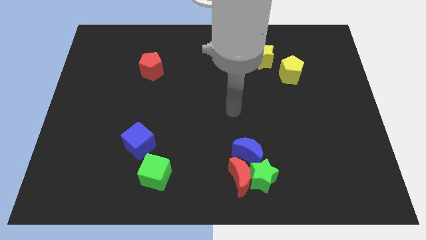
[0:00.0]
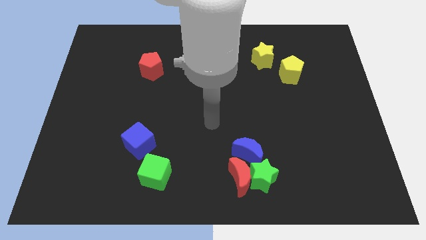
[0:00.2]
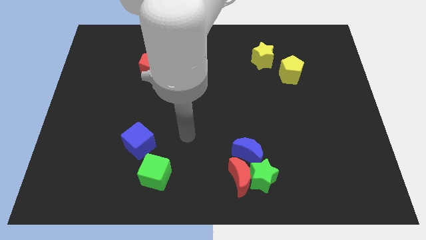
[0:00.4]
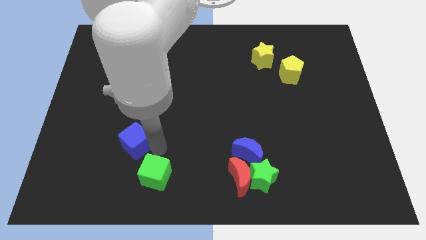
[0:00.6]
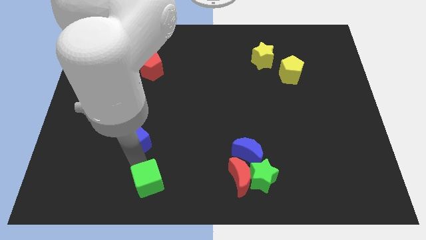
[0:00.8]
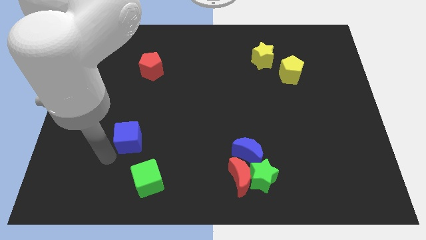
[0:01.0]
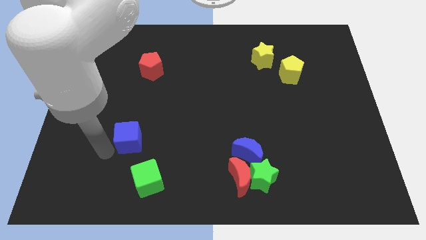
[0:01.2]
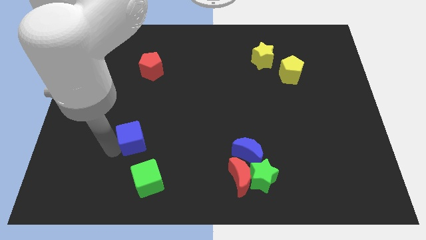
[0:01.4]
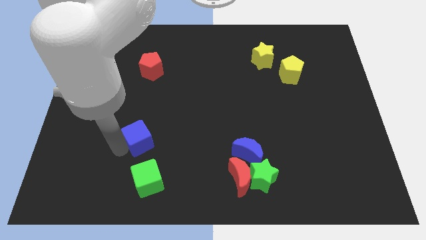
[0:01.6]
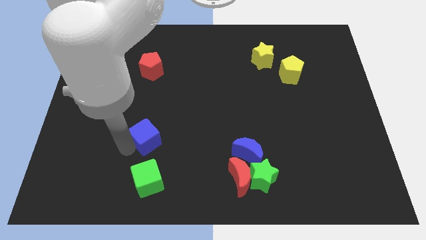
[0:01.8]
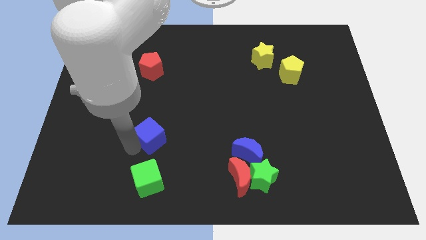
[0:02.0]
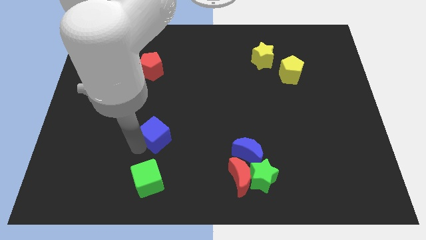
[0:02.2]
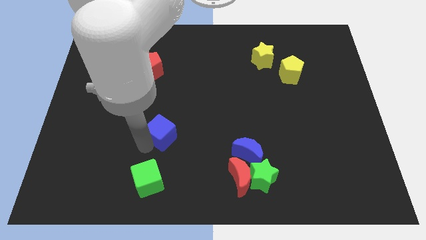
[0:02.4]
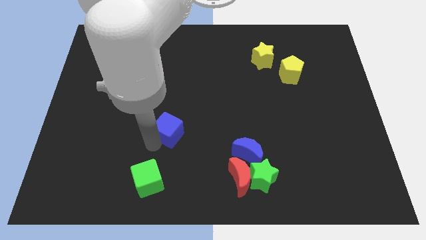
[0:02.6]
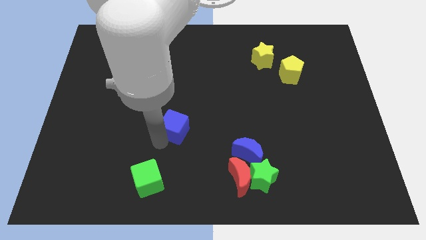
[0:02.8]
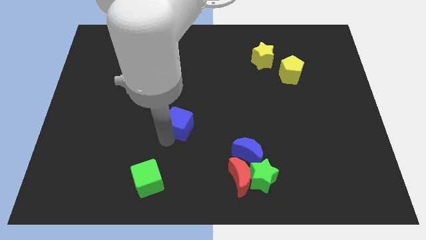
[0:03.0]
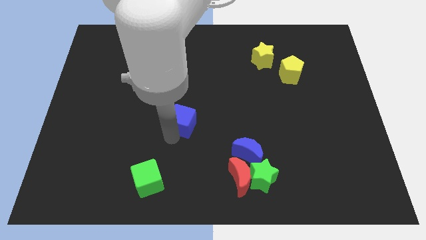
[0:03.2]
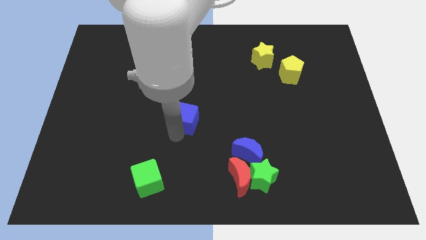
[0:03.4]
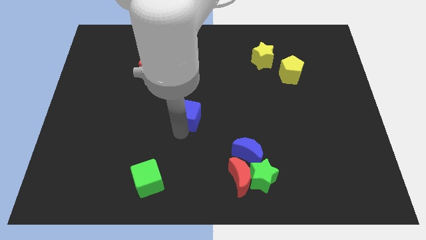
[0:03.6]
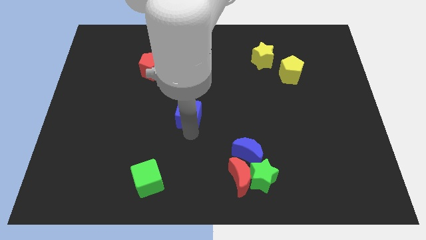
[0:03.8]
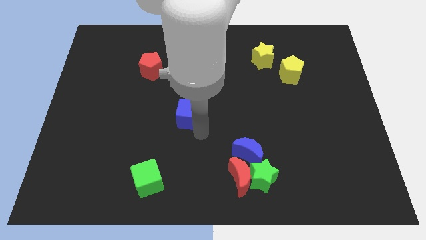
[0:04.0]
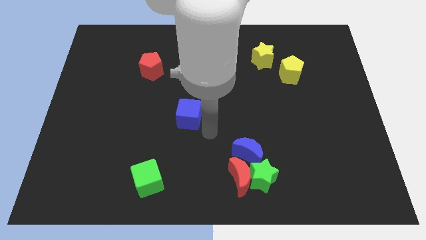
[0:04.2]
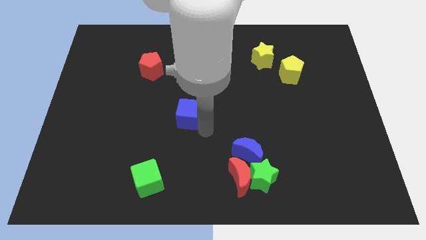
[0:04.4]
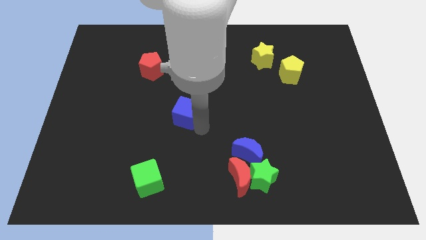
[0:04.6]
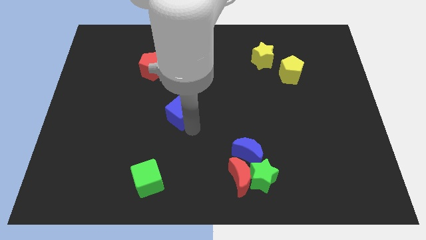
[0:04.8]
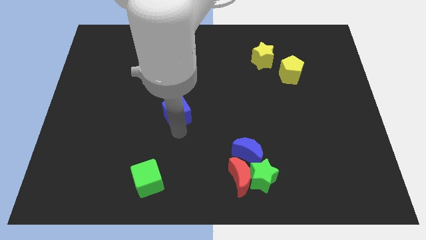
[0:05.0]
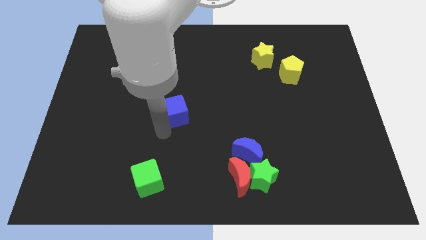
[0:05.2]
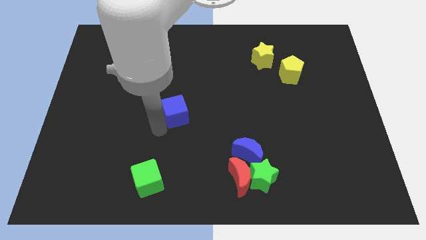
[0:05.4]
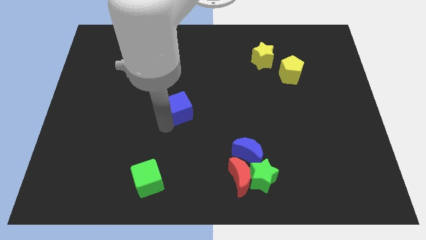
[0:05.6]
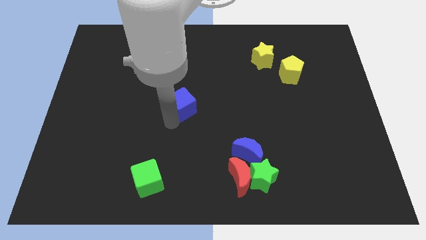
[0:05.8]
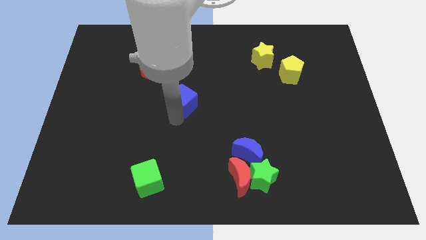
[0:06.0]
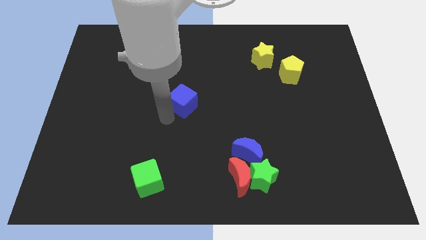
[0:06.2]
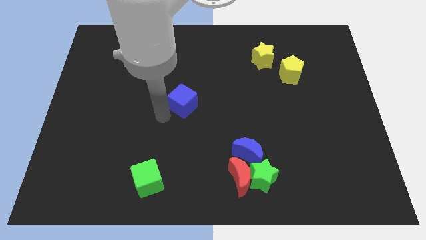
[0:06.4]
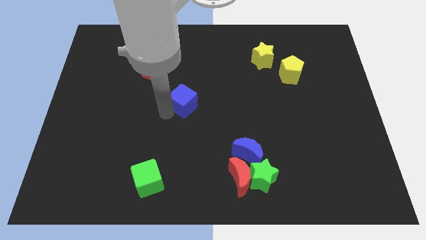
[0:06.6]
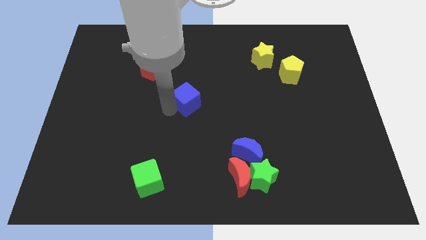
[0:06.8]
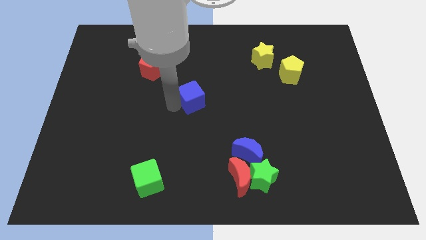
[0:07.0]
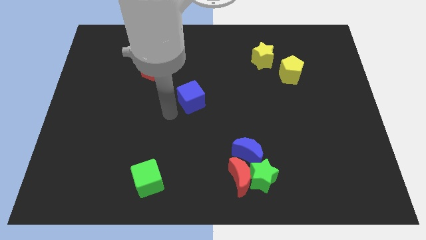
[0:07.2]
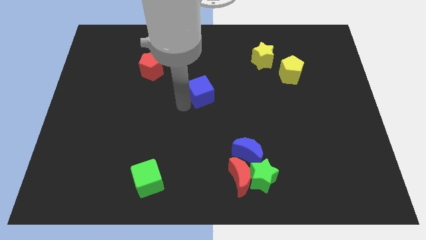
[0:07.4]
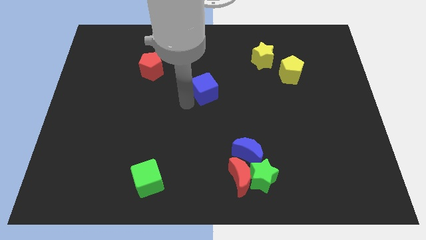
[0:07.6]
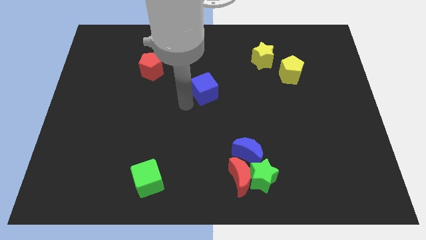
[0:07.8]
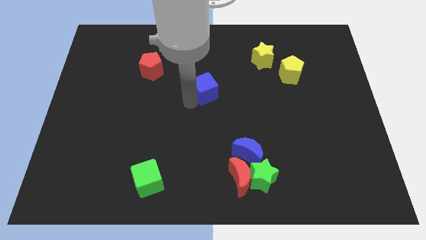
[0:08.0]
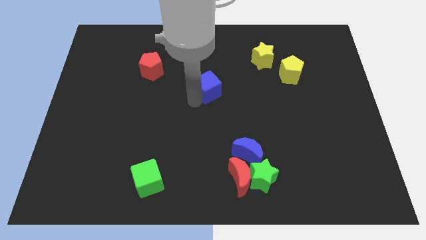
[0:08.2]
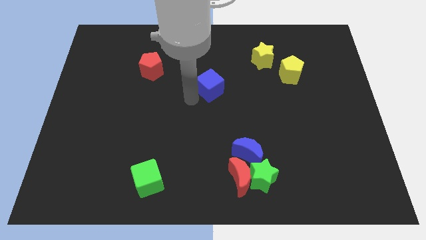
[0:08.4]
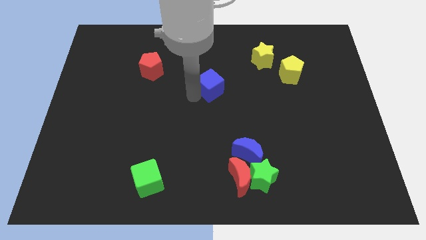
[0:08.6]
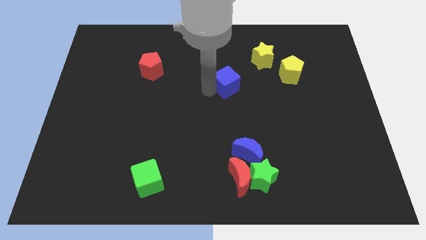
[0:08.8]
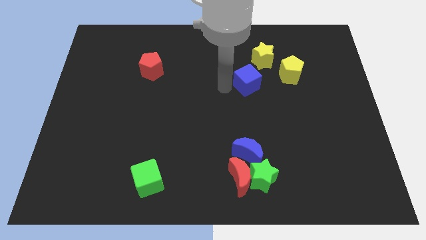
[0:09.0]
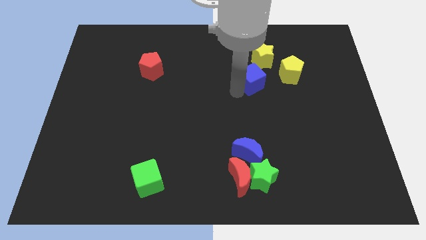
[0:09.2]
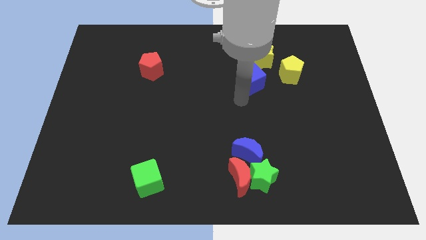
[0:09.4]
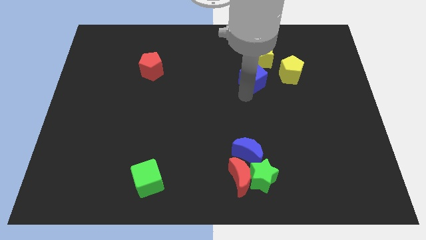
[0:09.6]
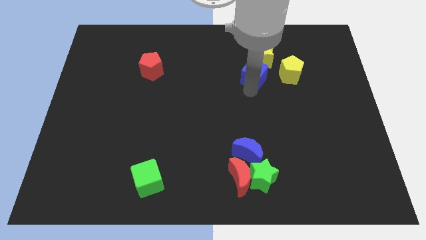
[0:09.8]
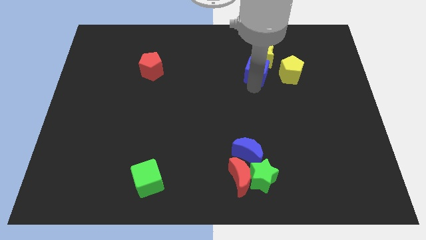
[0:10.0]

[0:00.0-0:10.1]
slide the blue cube next to the yellow star

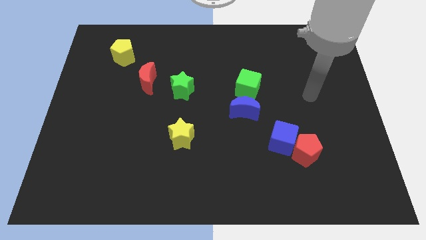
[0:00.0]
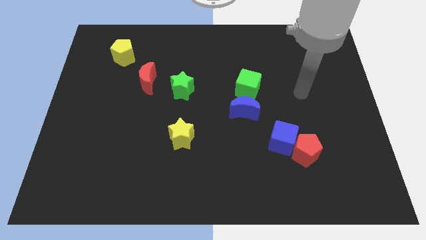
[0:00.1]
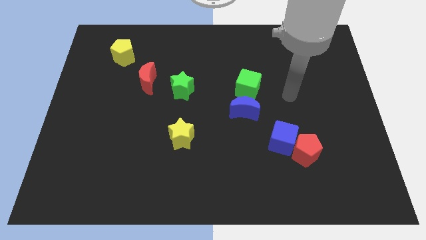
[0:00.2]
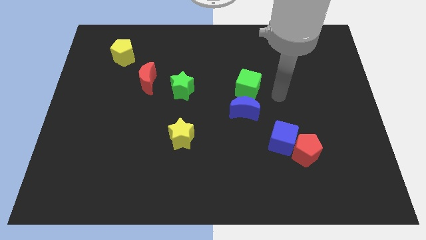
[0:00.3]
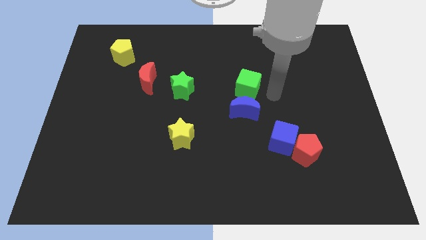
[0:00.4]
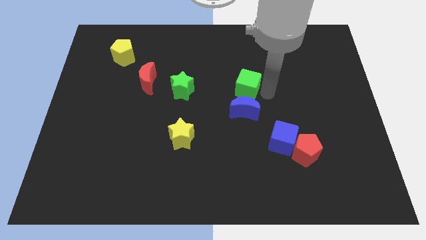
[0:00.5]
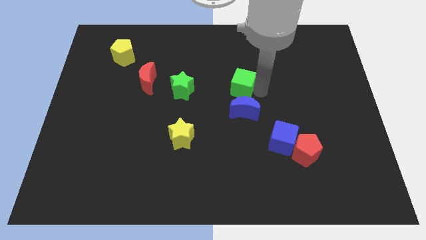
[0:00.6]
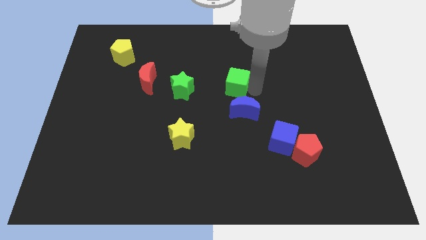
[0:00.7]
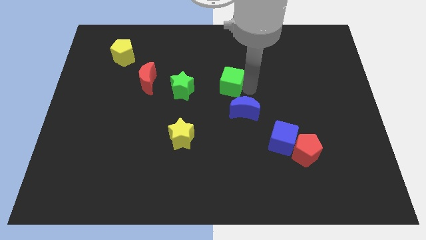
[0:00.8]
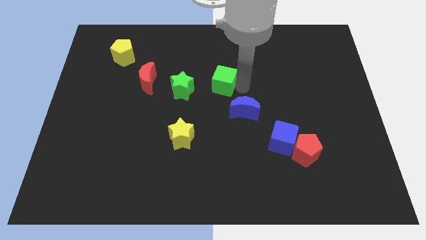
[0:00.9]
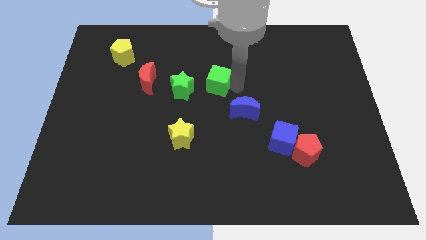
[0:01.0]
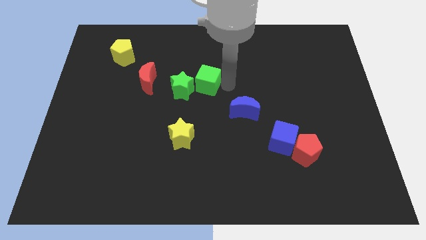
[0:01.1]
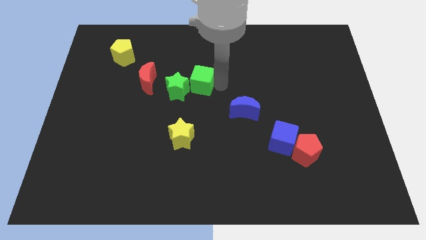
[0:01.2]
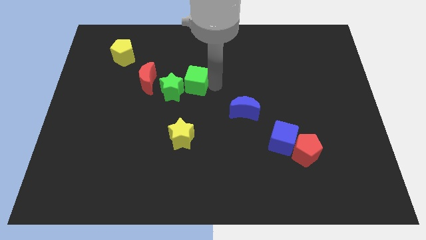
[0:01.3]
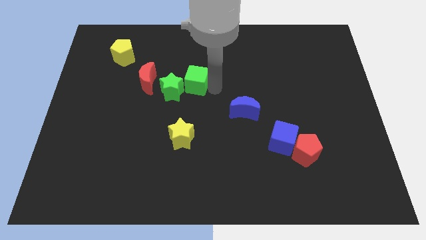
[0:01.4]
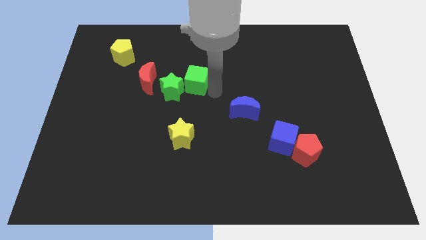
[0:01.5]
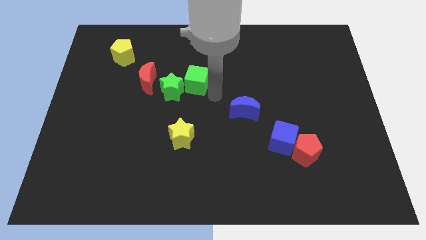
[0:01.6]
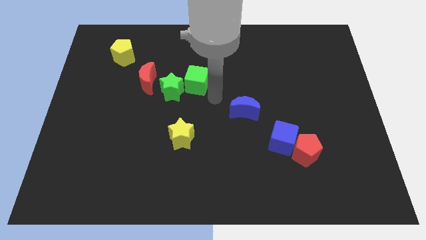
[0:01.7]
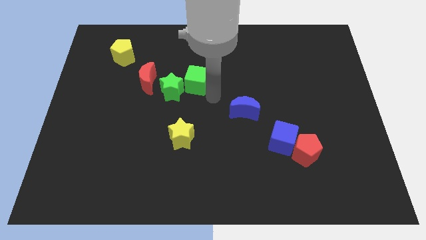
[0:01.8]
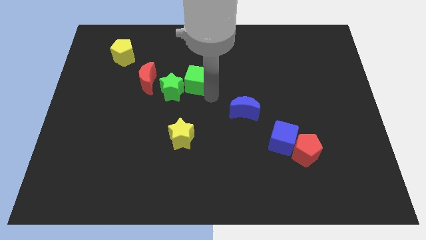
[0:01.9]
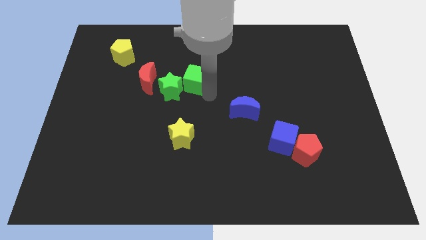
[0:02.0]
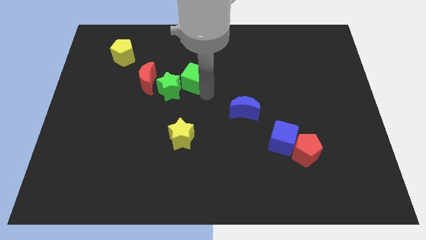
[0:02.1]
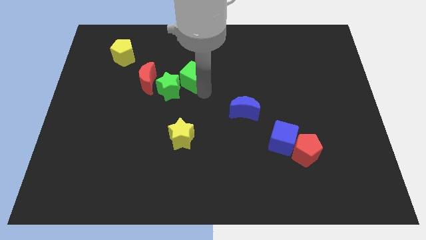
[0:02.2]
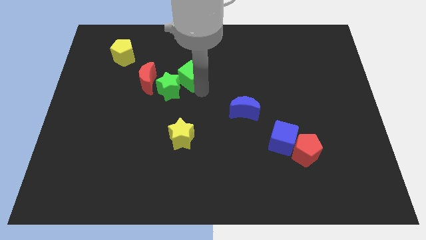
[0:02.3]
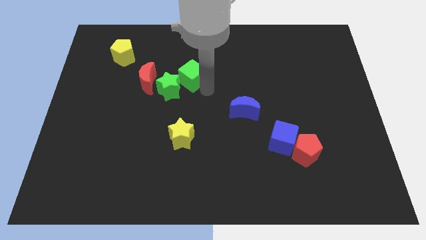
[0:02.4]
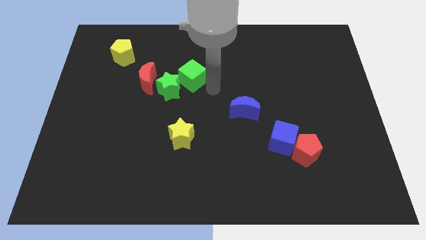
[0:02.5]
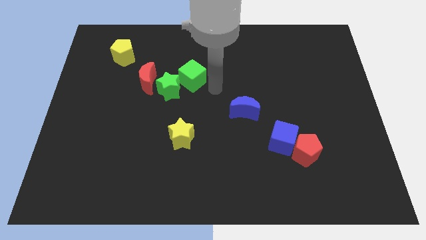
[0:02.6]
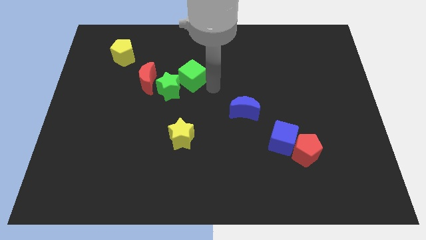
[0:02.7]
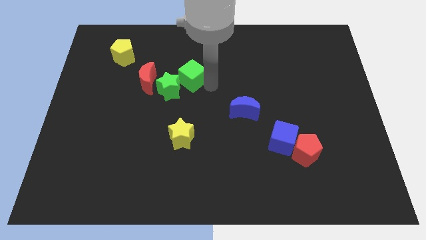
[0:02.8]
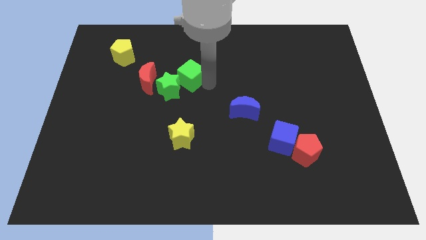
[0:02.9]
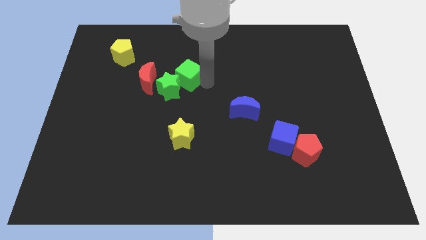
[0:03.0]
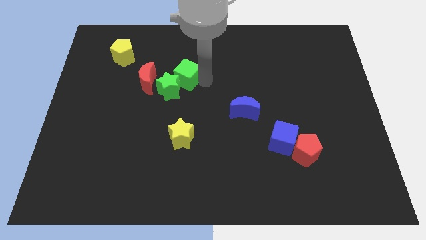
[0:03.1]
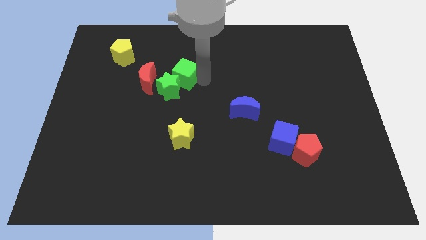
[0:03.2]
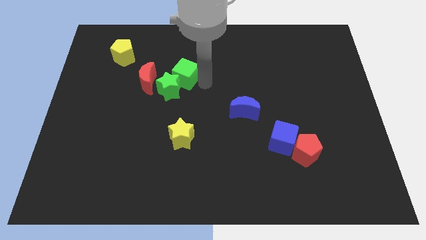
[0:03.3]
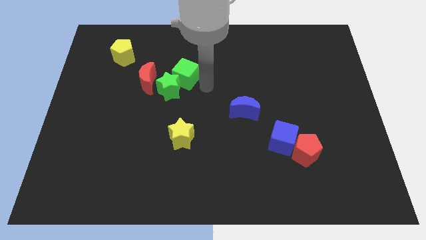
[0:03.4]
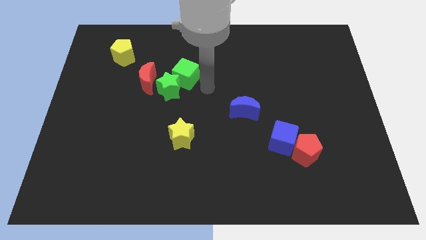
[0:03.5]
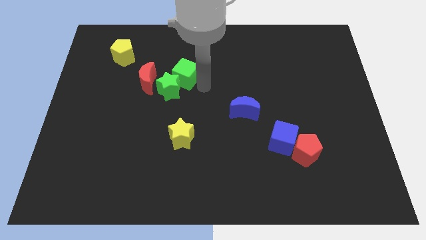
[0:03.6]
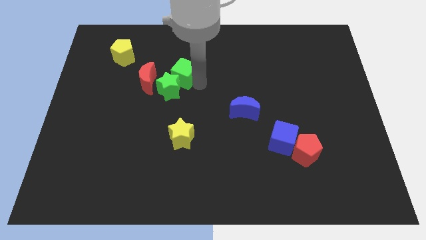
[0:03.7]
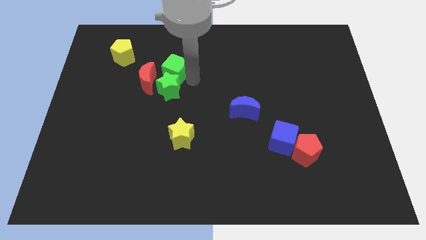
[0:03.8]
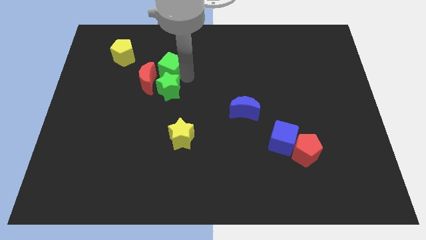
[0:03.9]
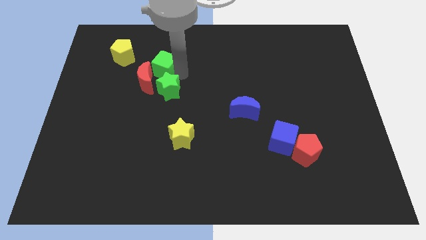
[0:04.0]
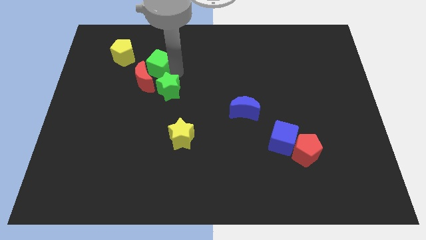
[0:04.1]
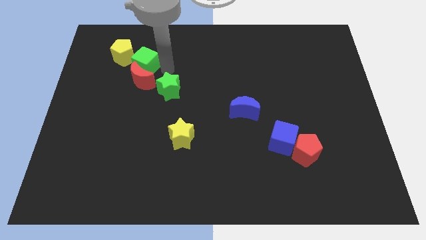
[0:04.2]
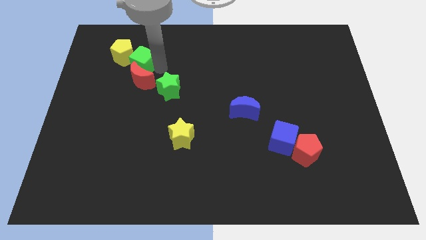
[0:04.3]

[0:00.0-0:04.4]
put the green cube next to the yellow pentagon
